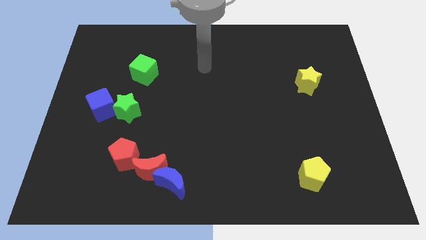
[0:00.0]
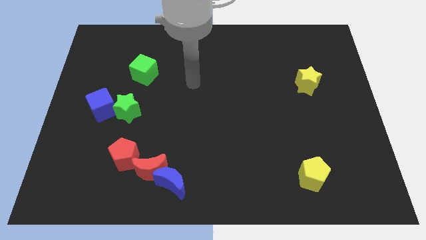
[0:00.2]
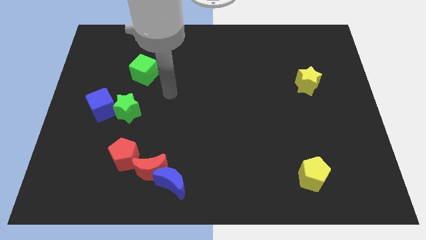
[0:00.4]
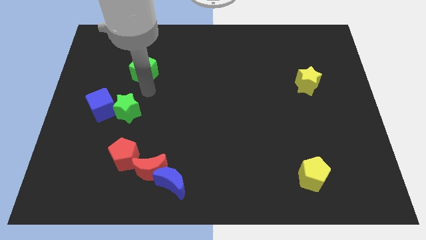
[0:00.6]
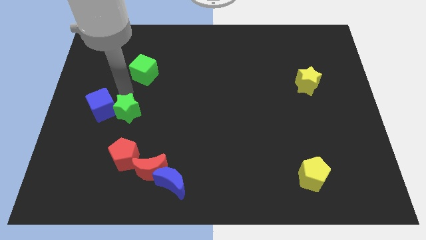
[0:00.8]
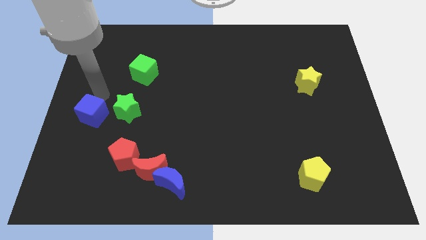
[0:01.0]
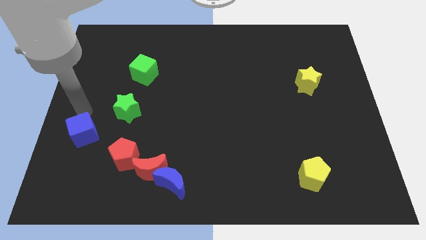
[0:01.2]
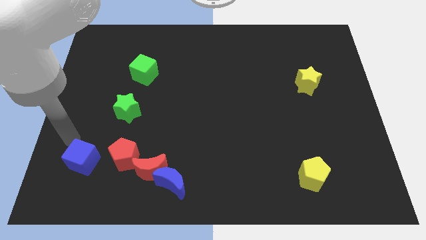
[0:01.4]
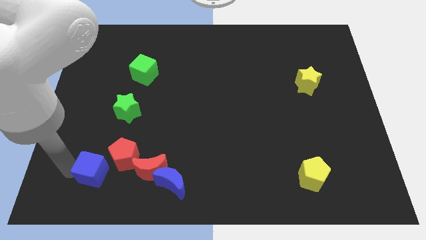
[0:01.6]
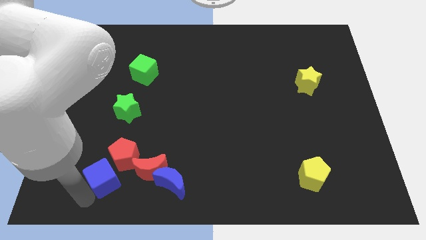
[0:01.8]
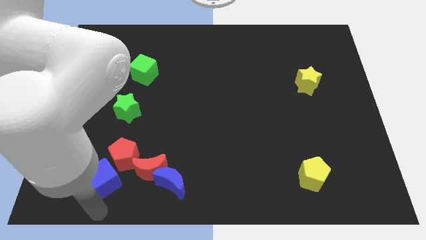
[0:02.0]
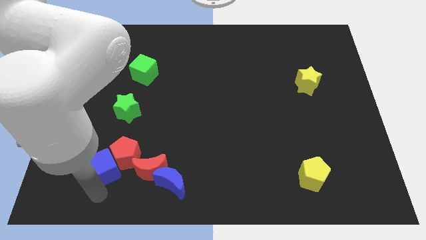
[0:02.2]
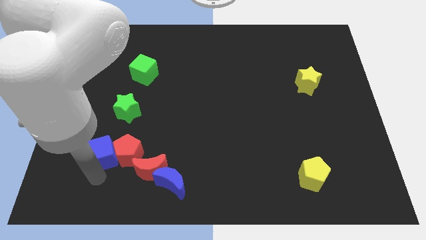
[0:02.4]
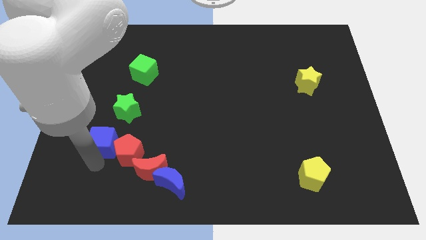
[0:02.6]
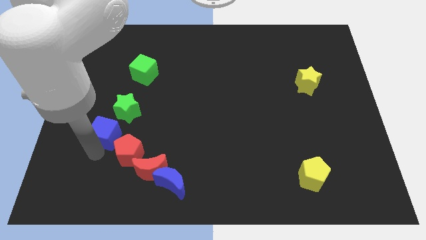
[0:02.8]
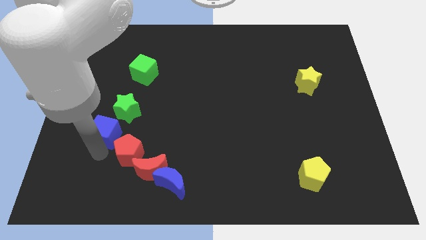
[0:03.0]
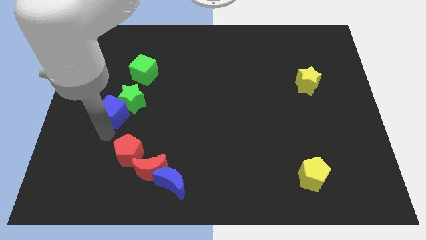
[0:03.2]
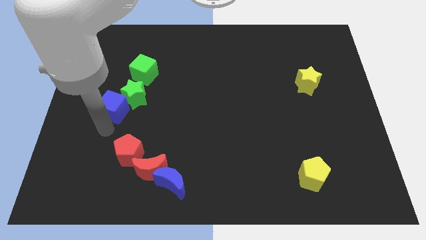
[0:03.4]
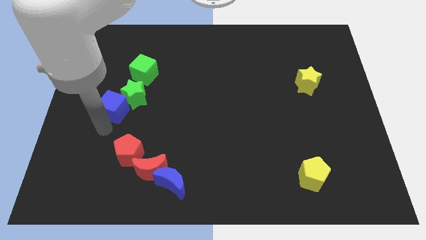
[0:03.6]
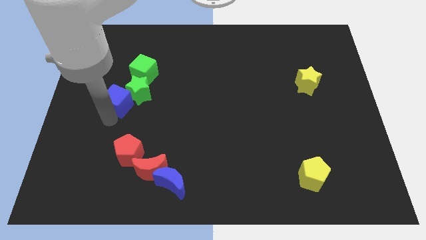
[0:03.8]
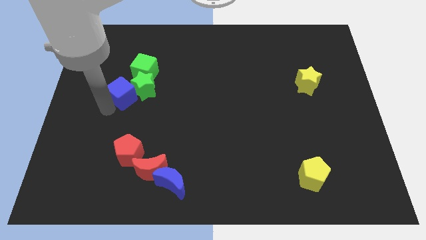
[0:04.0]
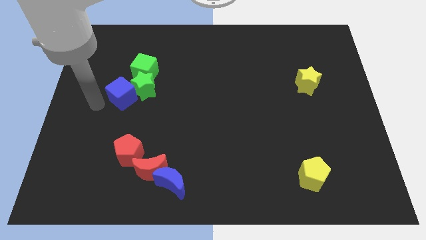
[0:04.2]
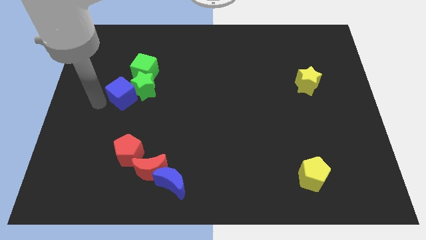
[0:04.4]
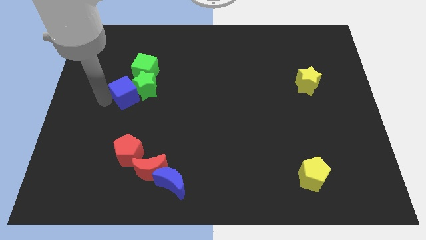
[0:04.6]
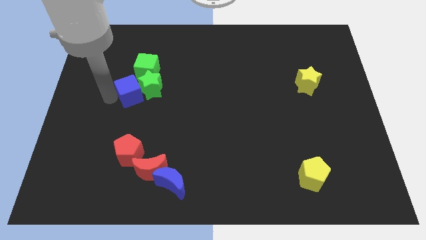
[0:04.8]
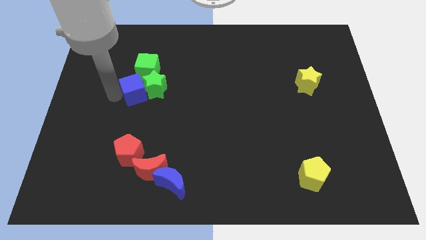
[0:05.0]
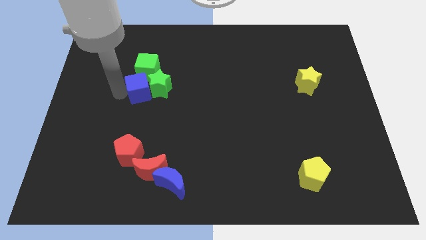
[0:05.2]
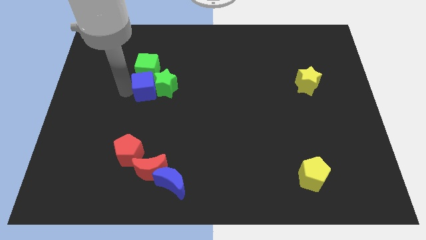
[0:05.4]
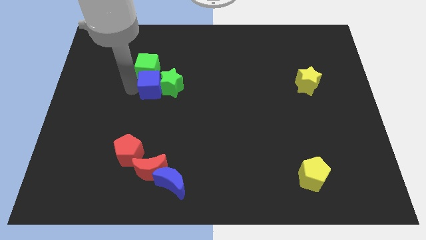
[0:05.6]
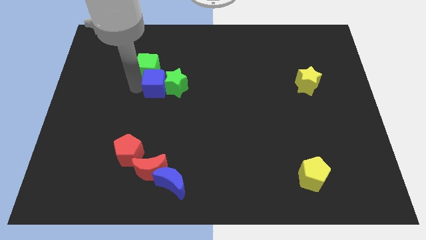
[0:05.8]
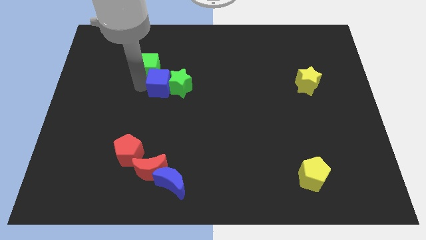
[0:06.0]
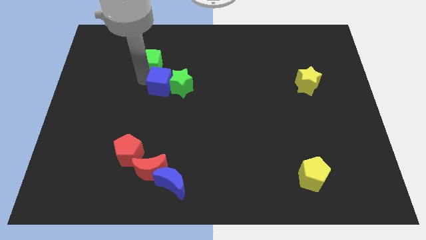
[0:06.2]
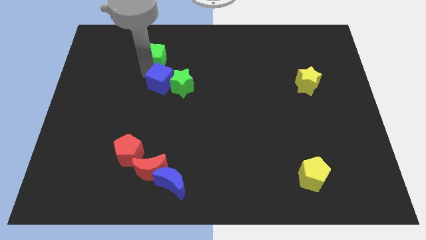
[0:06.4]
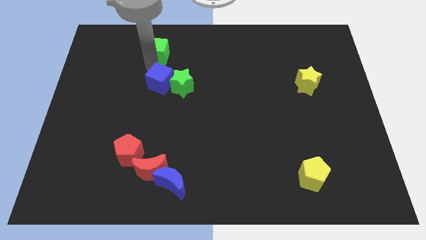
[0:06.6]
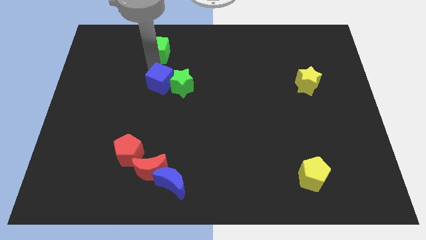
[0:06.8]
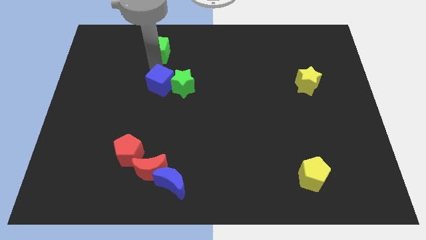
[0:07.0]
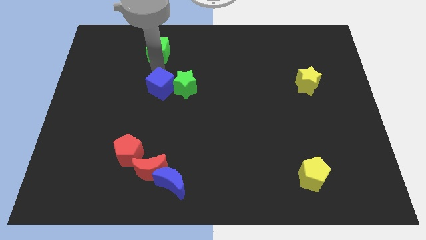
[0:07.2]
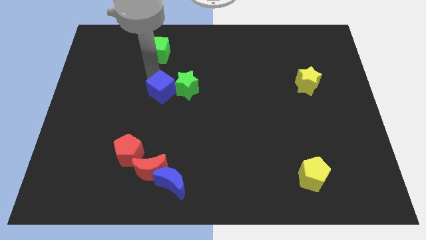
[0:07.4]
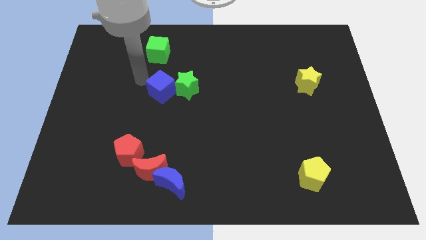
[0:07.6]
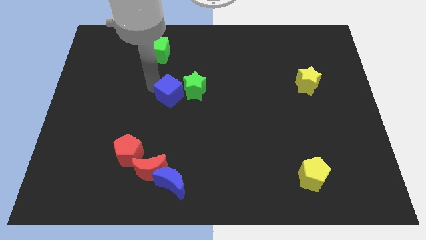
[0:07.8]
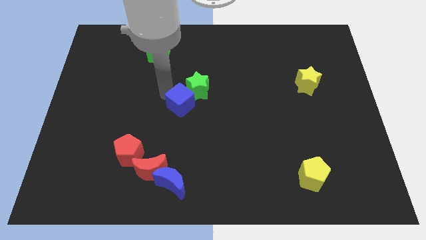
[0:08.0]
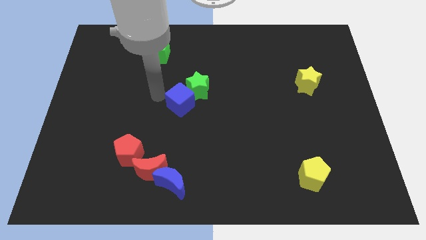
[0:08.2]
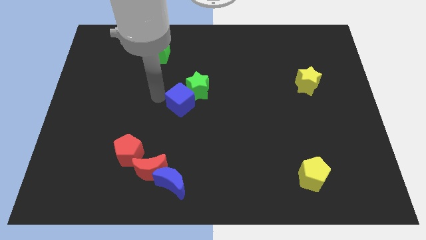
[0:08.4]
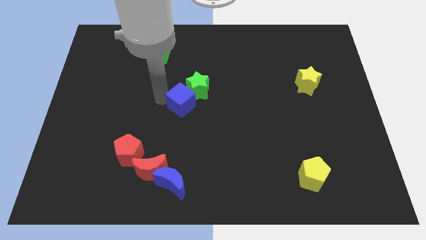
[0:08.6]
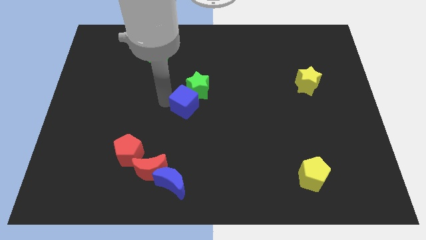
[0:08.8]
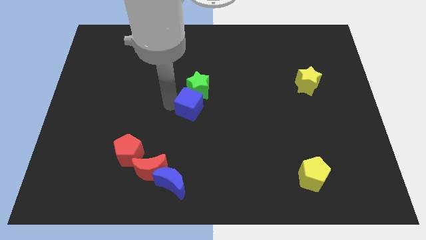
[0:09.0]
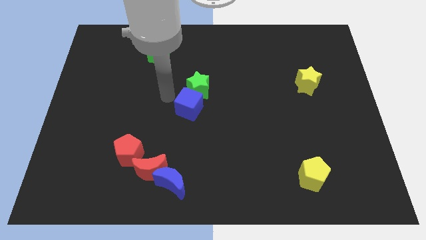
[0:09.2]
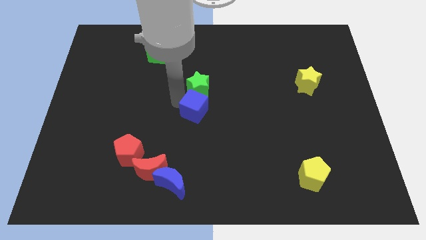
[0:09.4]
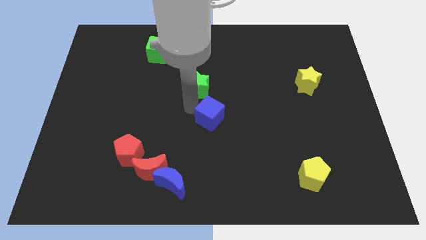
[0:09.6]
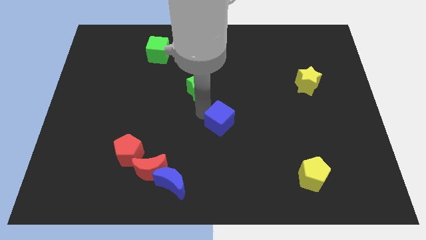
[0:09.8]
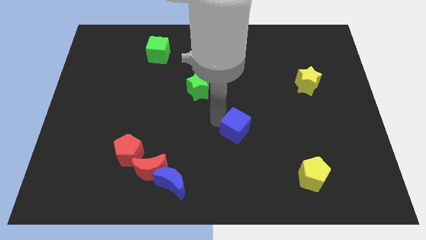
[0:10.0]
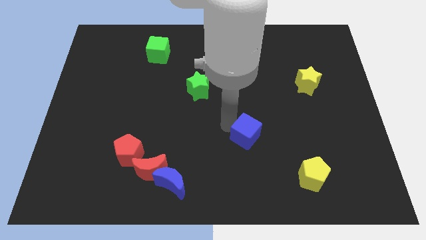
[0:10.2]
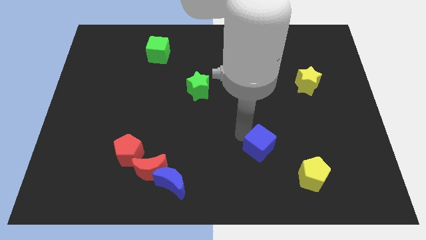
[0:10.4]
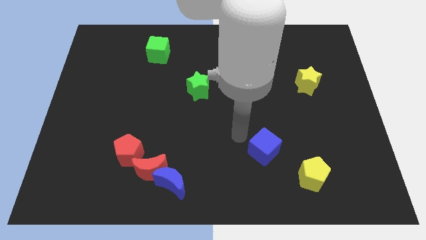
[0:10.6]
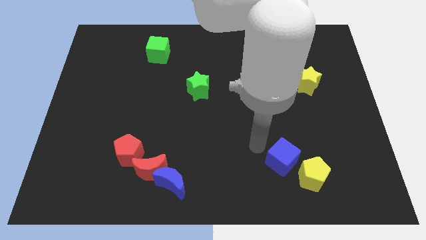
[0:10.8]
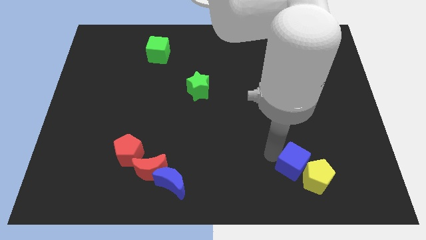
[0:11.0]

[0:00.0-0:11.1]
move the blue cube towards the yellow pentagon

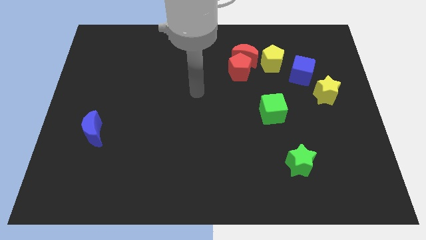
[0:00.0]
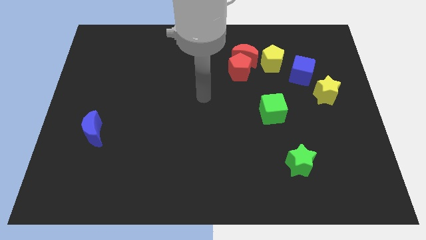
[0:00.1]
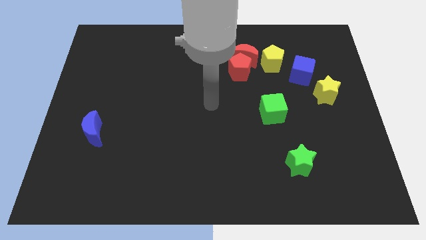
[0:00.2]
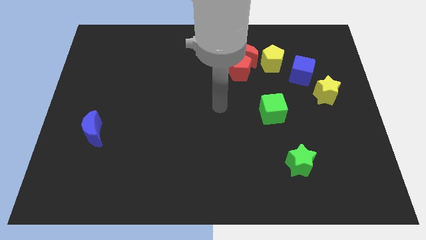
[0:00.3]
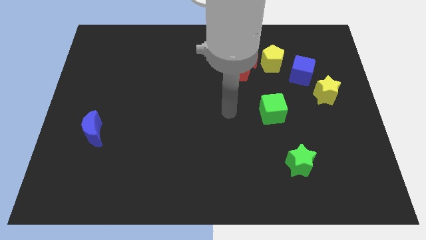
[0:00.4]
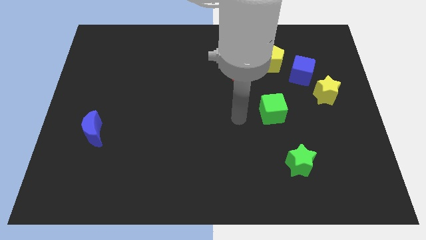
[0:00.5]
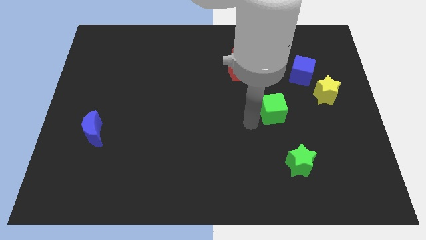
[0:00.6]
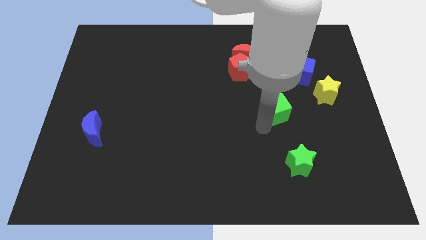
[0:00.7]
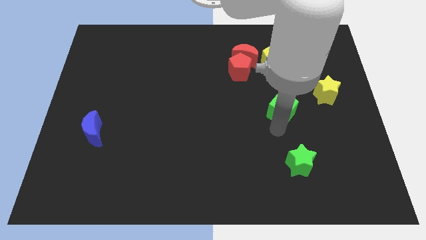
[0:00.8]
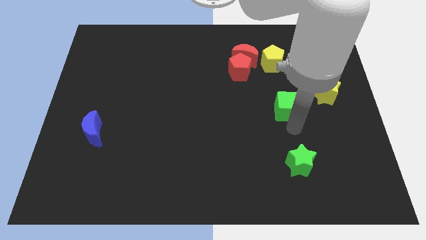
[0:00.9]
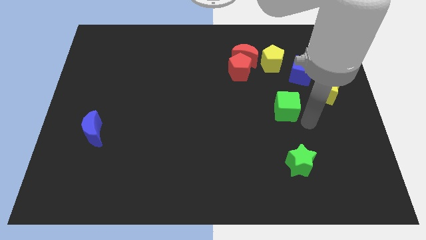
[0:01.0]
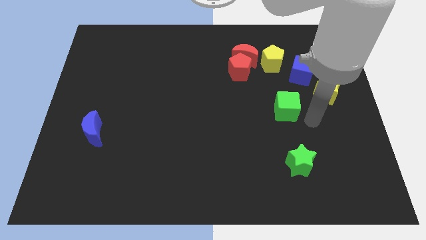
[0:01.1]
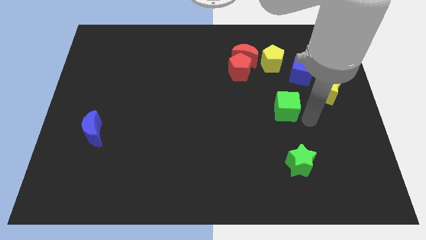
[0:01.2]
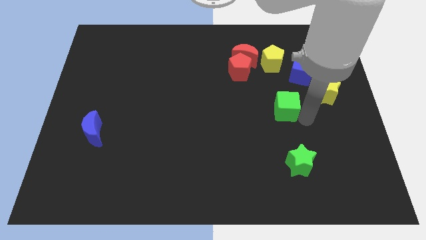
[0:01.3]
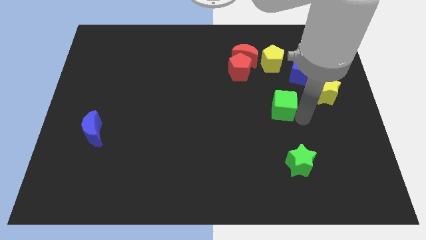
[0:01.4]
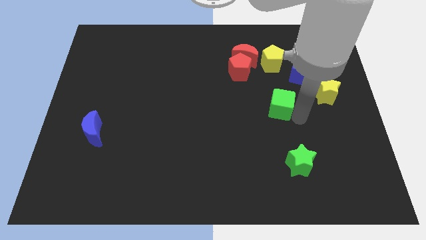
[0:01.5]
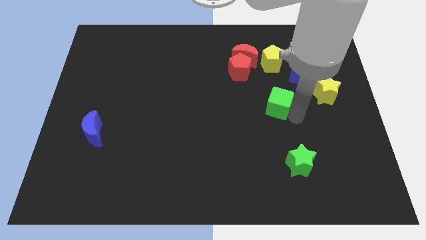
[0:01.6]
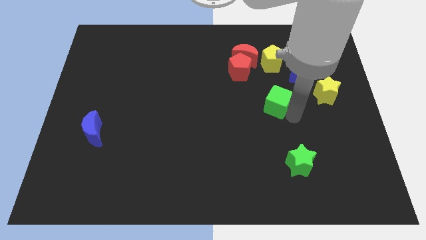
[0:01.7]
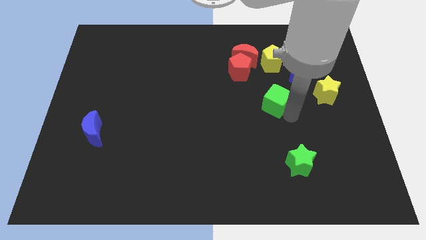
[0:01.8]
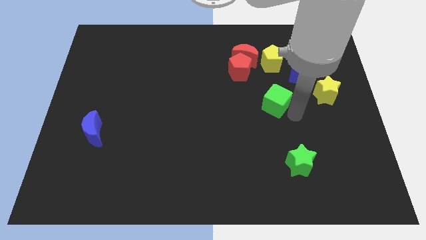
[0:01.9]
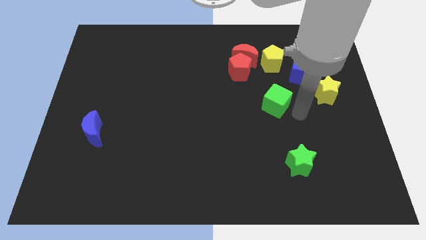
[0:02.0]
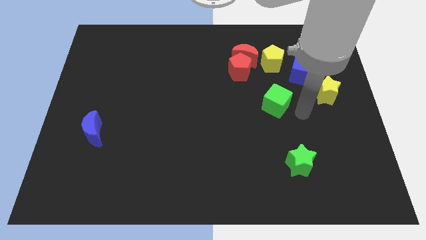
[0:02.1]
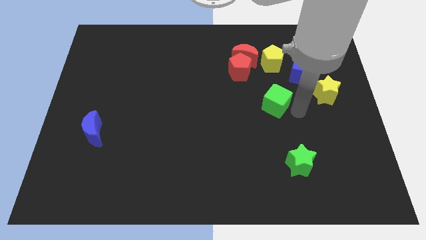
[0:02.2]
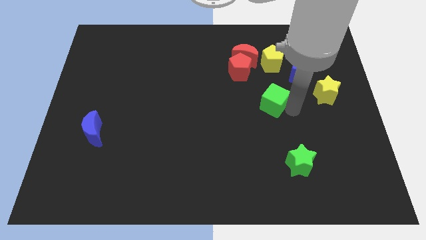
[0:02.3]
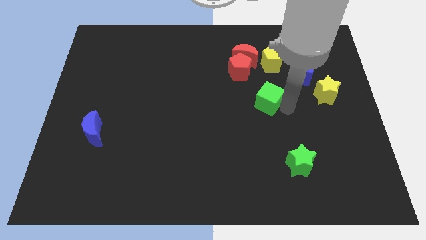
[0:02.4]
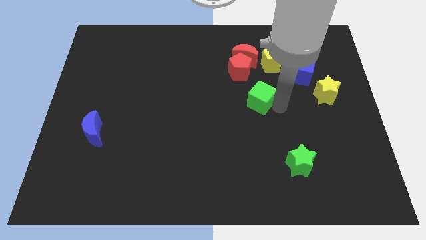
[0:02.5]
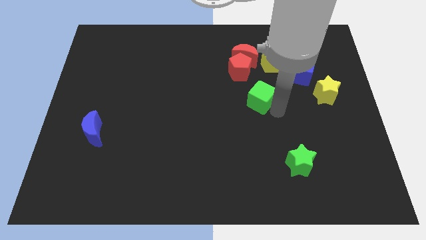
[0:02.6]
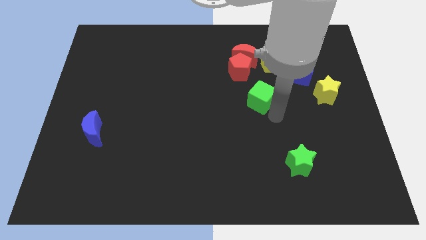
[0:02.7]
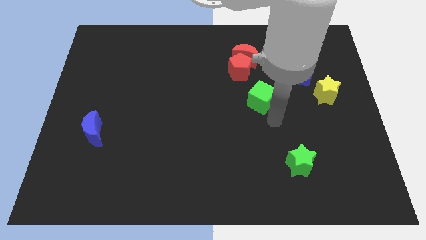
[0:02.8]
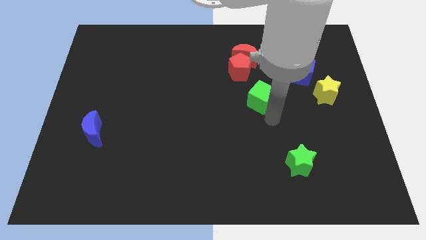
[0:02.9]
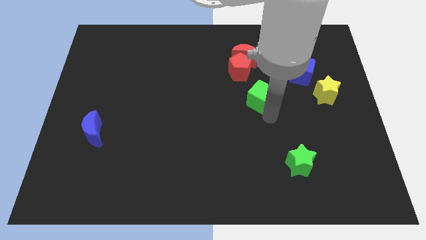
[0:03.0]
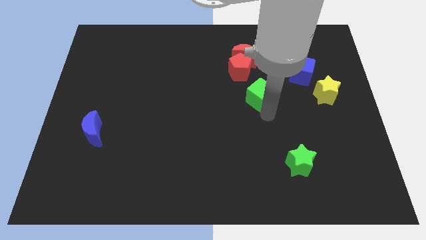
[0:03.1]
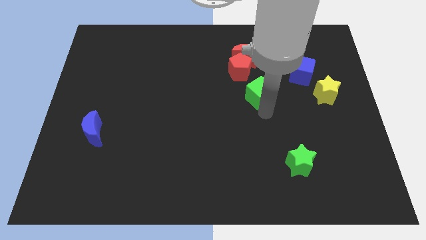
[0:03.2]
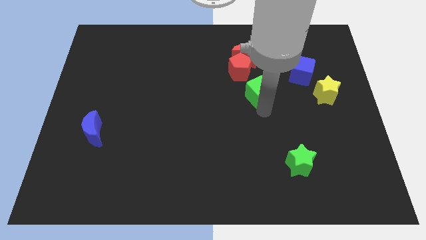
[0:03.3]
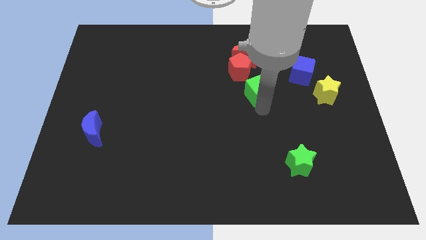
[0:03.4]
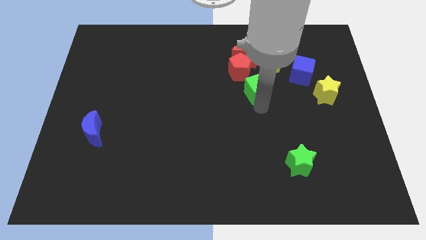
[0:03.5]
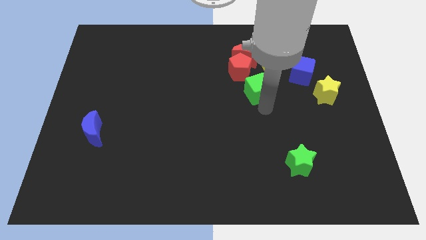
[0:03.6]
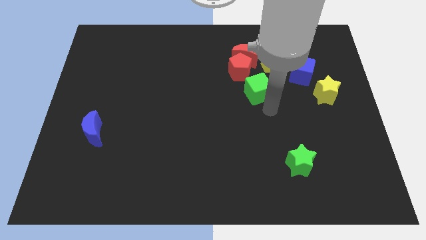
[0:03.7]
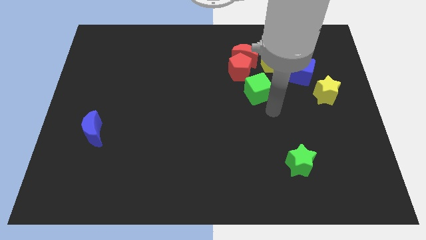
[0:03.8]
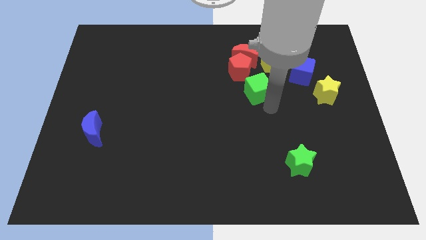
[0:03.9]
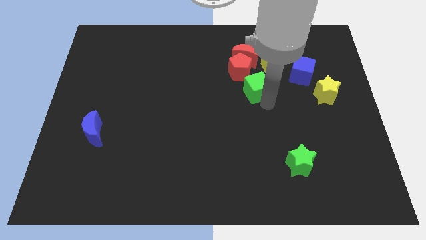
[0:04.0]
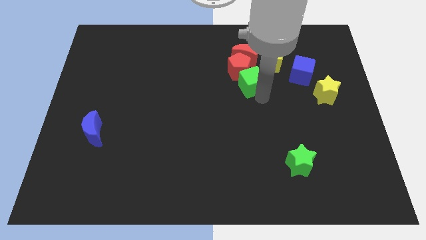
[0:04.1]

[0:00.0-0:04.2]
move the green cube next to the red pentagon
